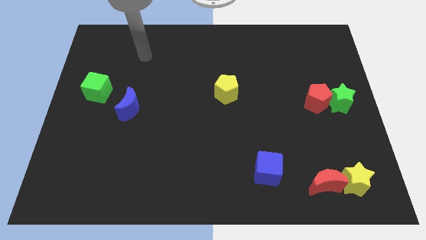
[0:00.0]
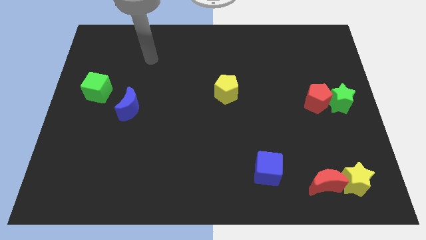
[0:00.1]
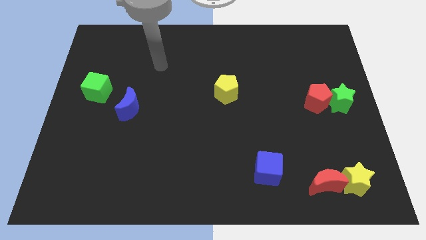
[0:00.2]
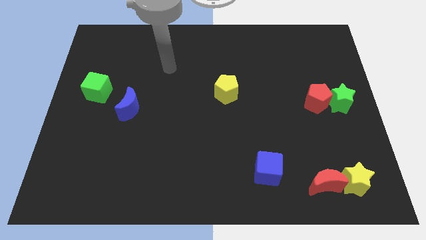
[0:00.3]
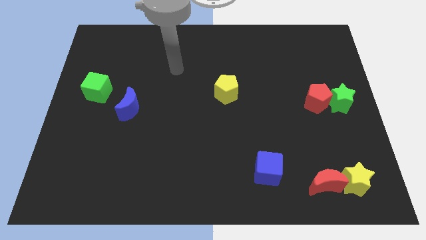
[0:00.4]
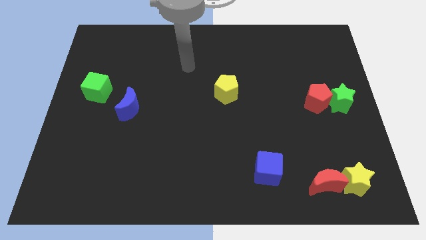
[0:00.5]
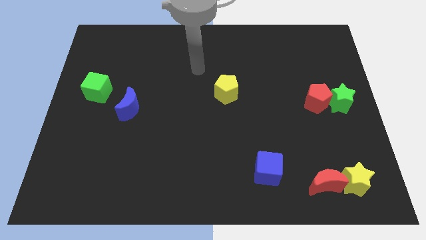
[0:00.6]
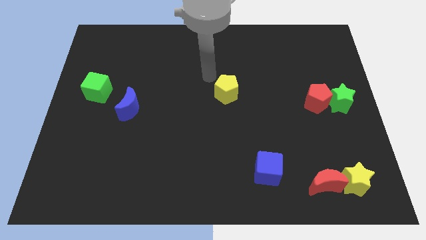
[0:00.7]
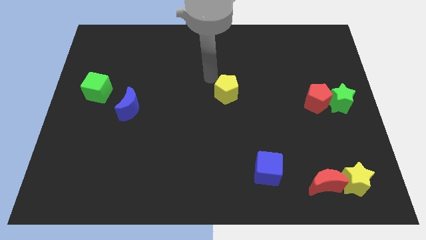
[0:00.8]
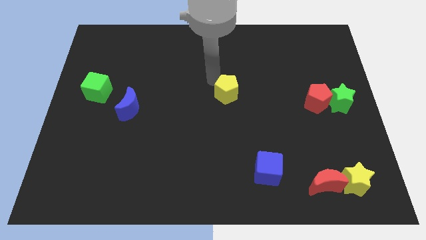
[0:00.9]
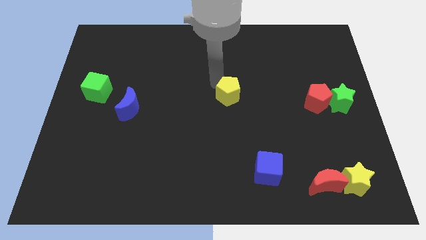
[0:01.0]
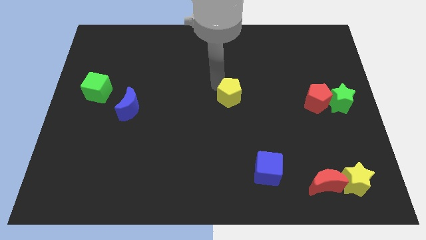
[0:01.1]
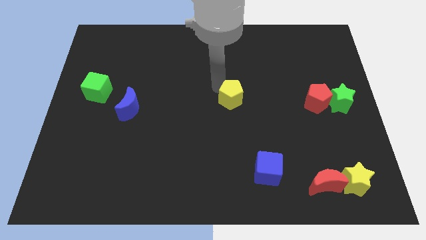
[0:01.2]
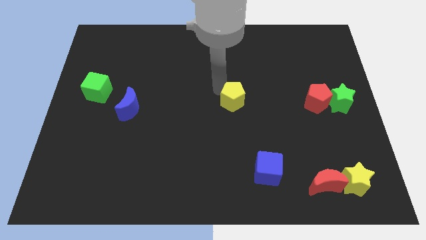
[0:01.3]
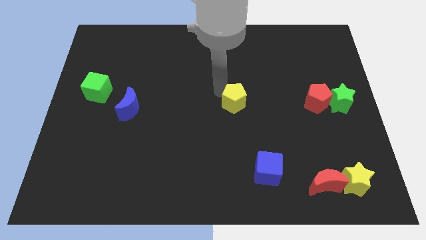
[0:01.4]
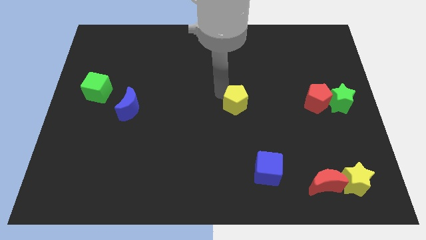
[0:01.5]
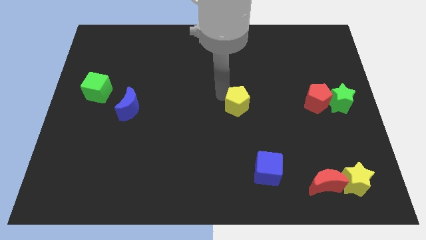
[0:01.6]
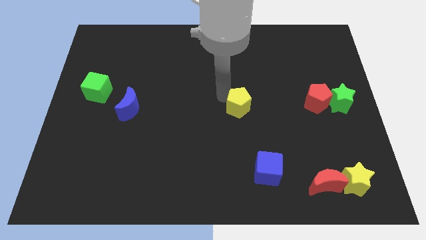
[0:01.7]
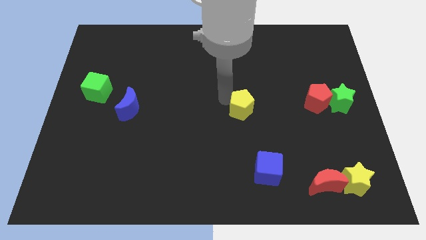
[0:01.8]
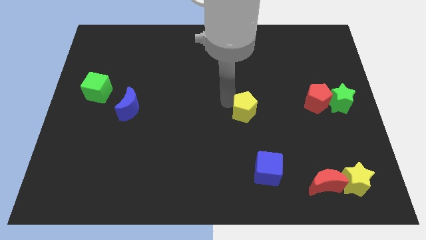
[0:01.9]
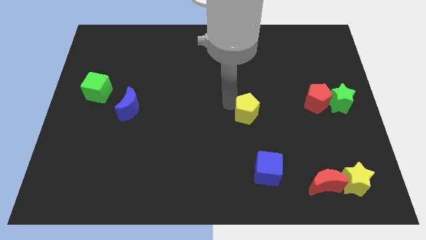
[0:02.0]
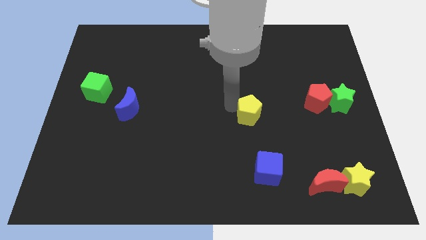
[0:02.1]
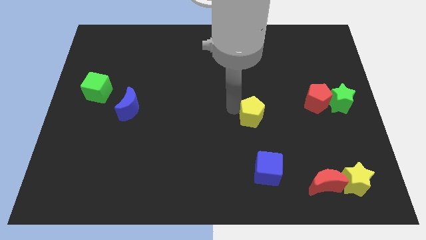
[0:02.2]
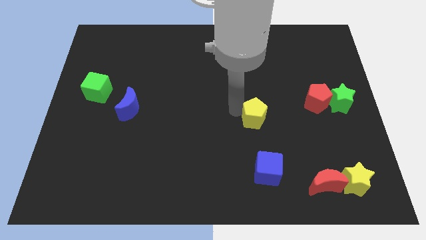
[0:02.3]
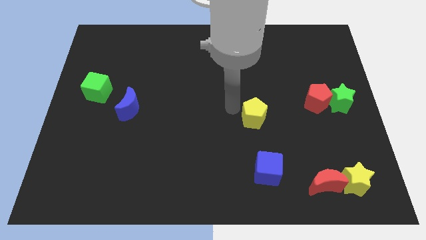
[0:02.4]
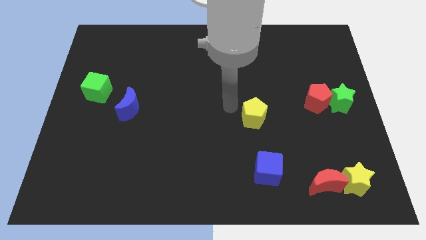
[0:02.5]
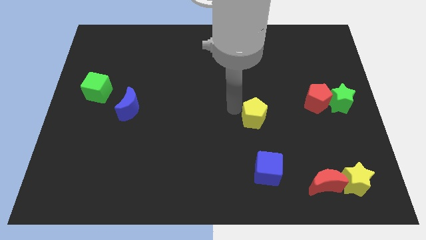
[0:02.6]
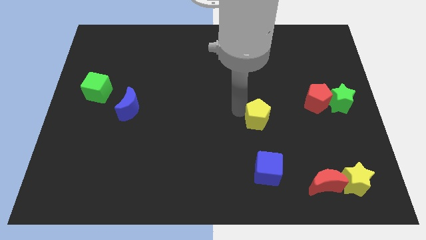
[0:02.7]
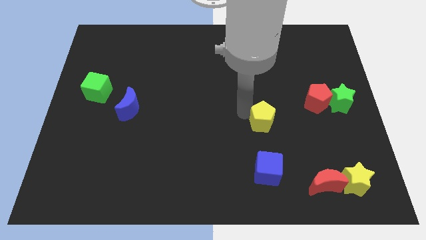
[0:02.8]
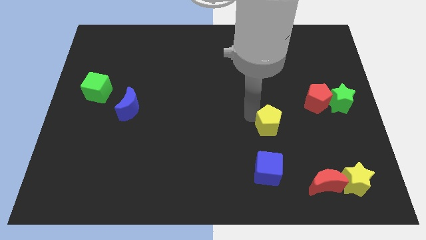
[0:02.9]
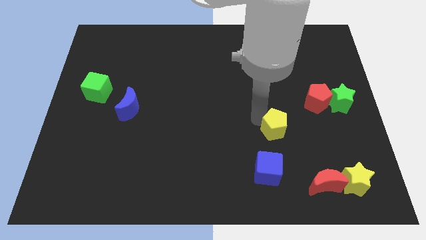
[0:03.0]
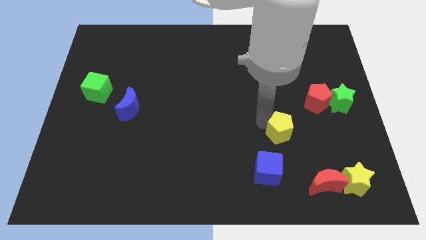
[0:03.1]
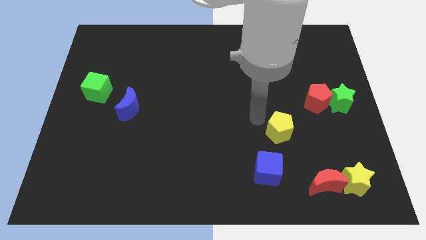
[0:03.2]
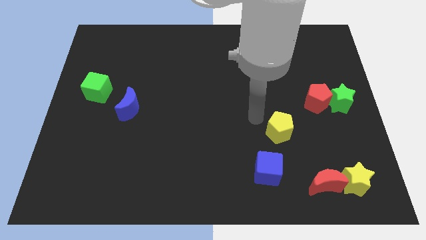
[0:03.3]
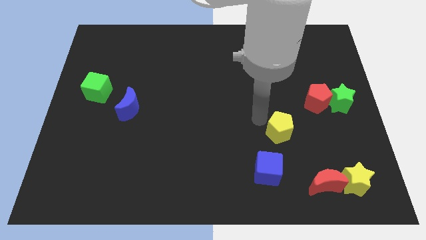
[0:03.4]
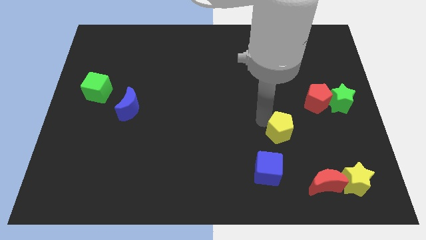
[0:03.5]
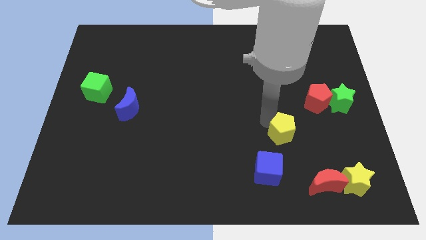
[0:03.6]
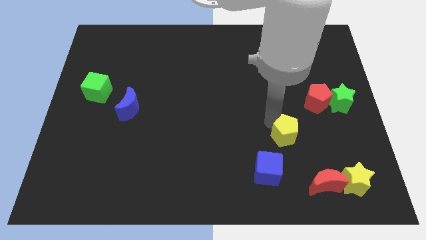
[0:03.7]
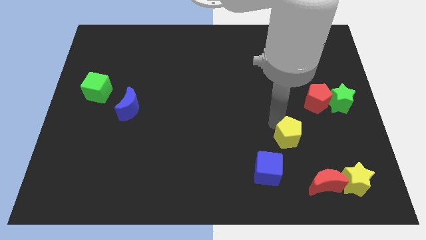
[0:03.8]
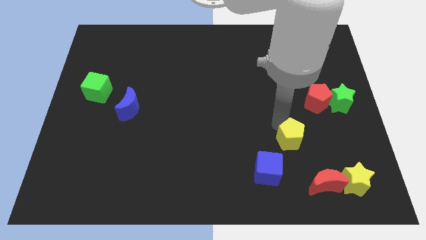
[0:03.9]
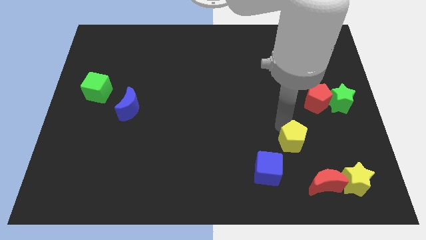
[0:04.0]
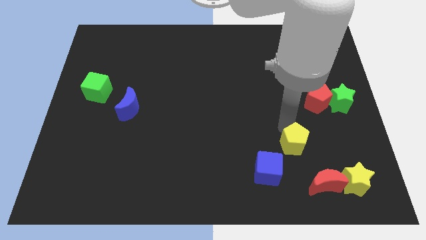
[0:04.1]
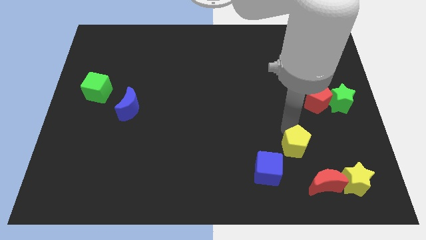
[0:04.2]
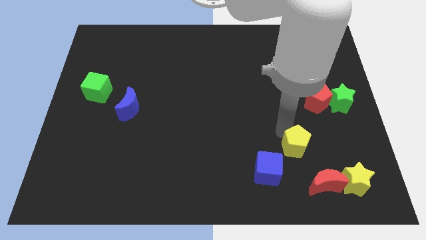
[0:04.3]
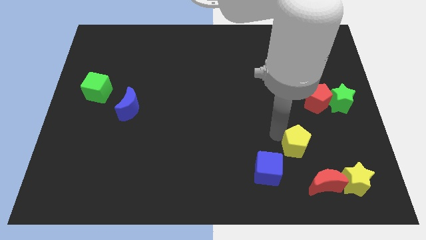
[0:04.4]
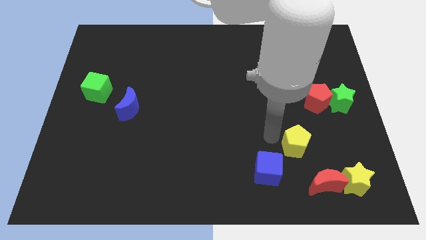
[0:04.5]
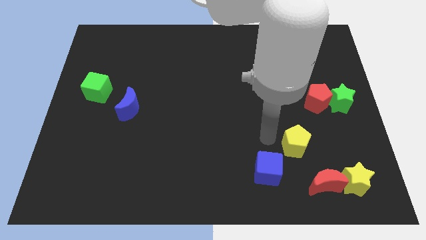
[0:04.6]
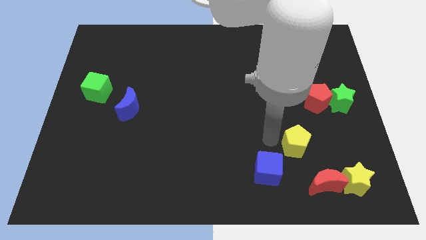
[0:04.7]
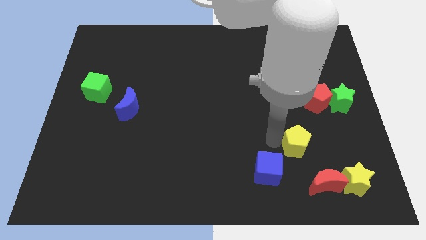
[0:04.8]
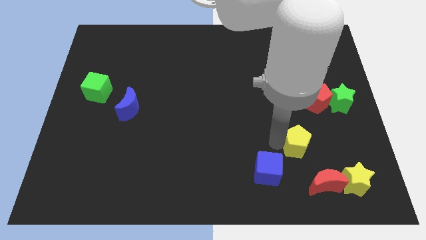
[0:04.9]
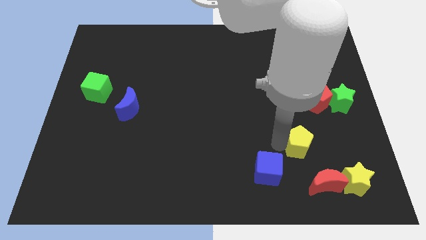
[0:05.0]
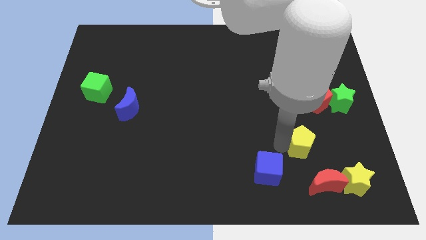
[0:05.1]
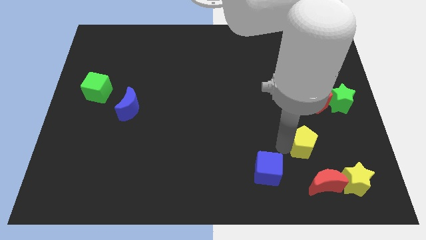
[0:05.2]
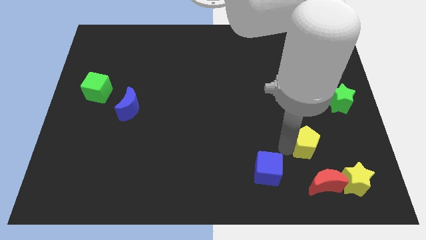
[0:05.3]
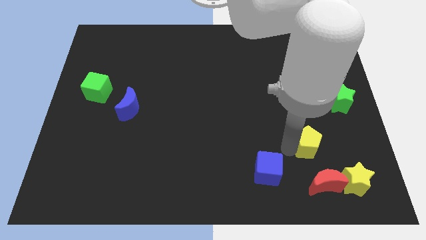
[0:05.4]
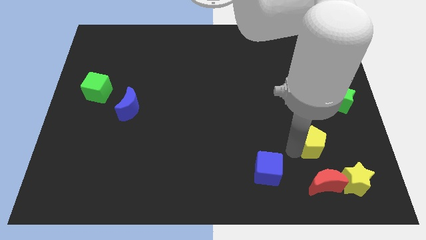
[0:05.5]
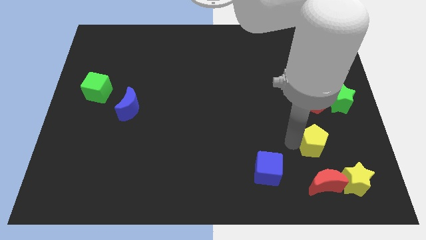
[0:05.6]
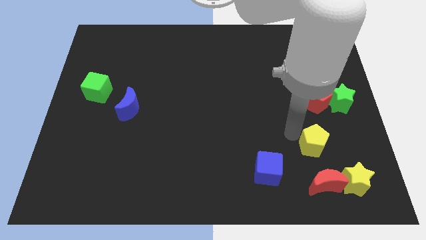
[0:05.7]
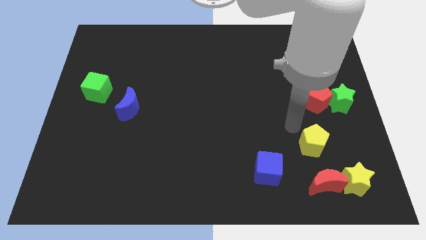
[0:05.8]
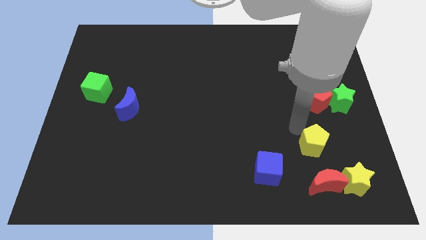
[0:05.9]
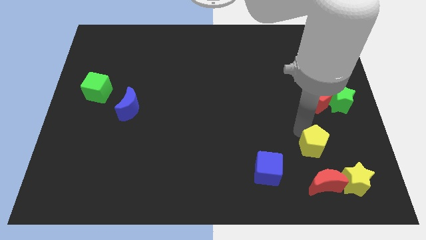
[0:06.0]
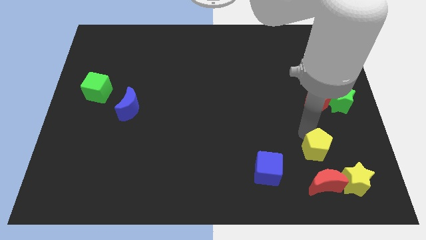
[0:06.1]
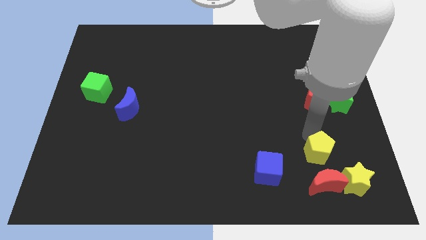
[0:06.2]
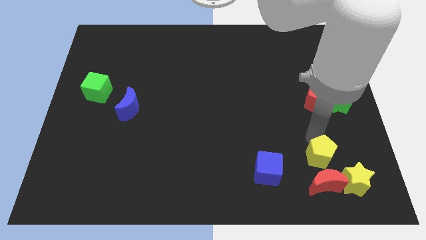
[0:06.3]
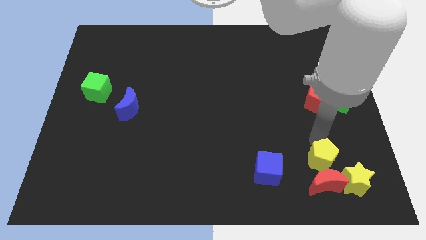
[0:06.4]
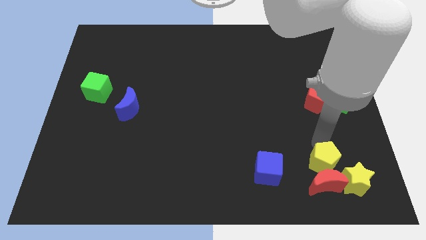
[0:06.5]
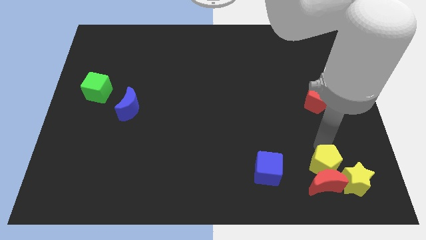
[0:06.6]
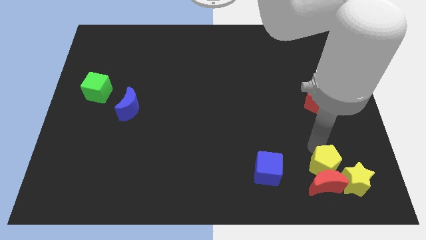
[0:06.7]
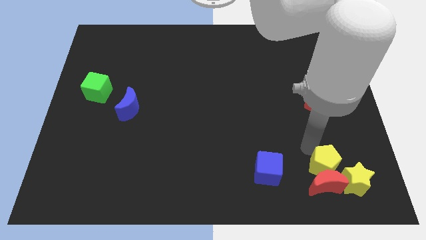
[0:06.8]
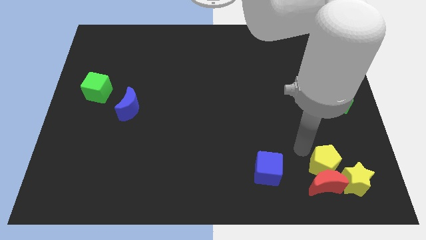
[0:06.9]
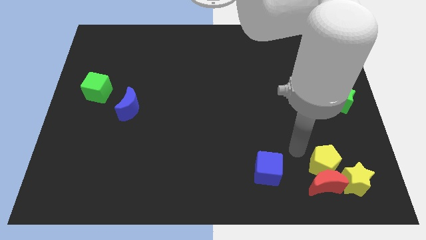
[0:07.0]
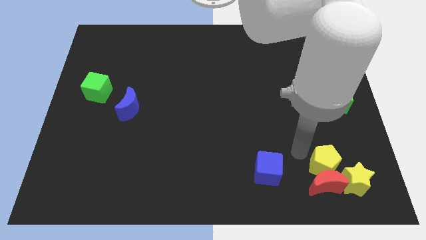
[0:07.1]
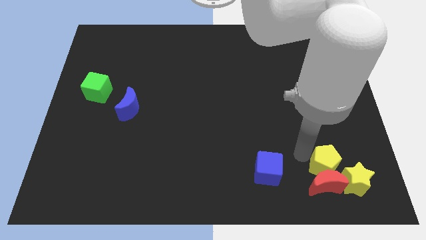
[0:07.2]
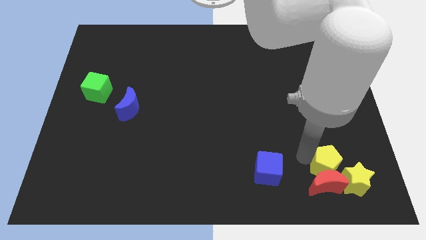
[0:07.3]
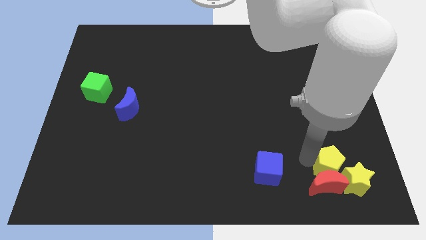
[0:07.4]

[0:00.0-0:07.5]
push the yellow pentagon next to the yellow star
